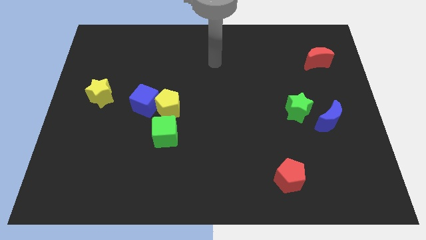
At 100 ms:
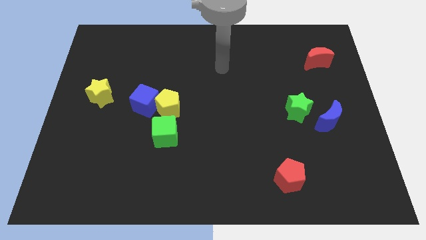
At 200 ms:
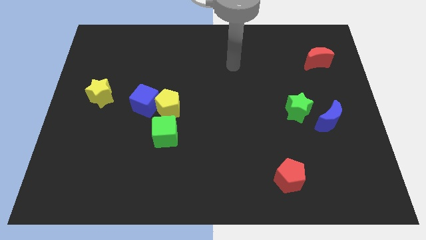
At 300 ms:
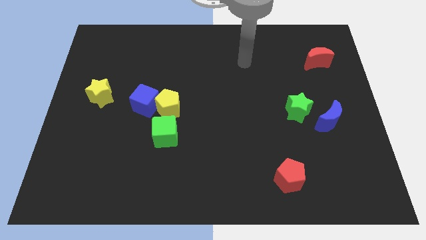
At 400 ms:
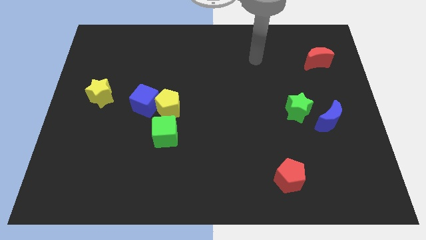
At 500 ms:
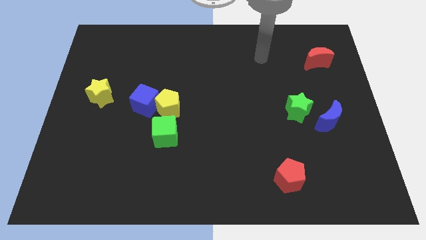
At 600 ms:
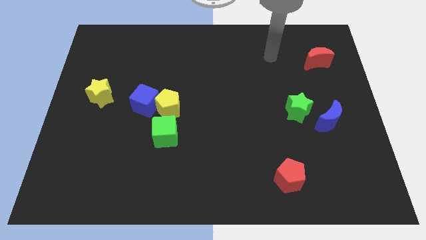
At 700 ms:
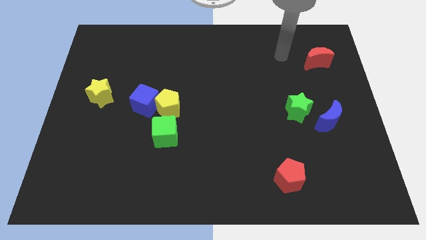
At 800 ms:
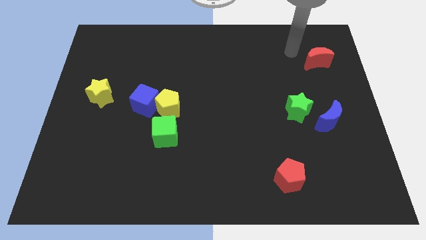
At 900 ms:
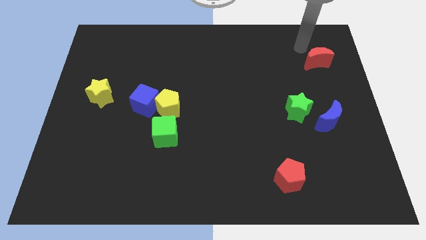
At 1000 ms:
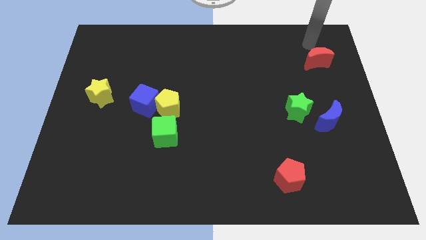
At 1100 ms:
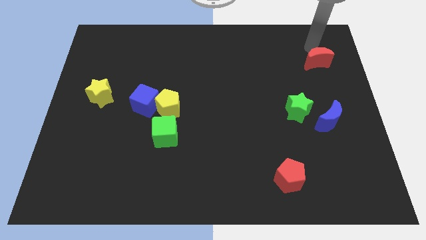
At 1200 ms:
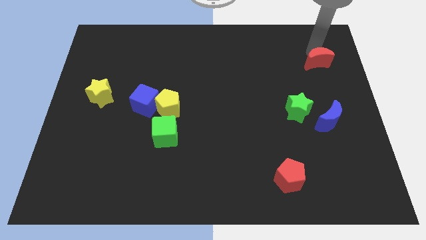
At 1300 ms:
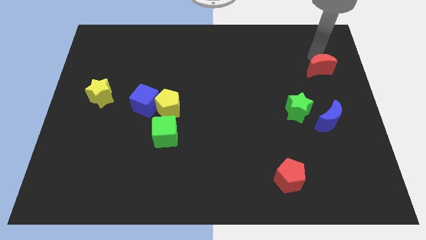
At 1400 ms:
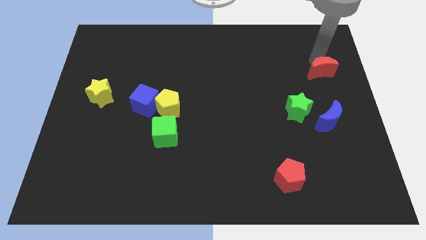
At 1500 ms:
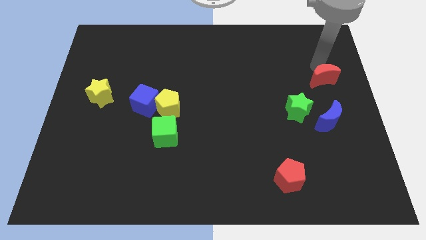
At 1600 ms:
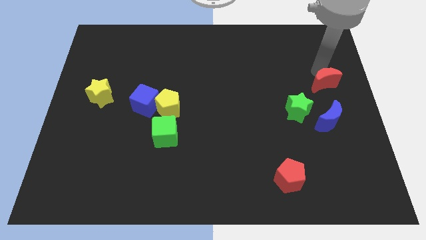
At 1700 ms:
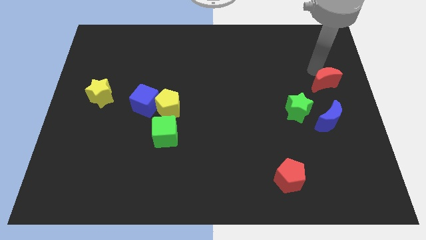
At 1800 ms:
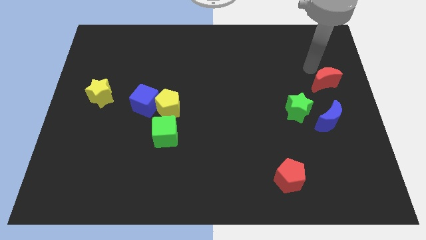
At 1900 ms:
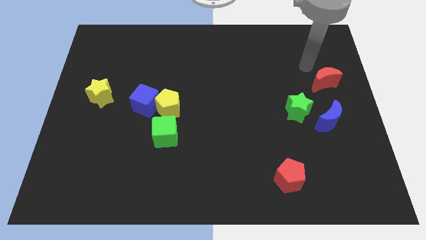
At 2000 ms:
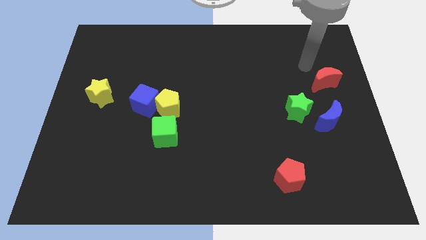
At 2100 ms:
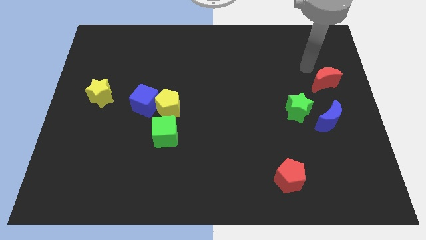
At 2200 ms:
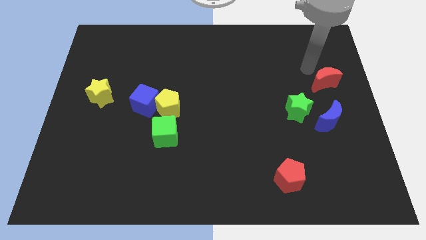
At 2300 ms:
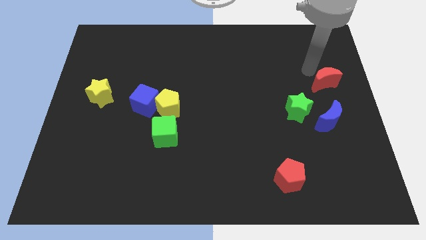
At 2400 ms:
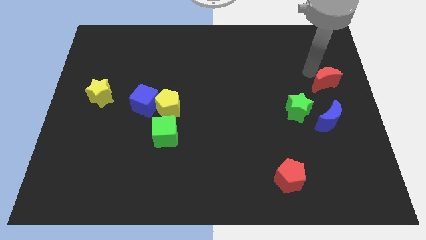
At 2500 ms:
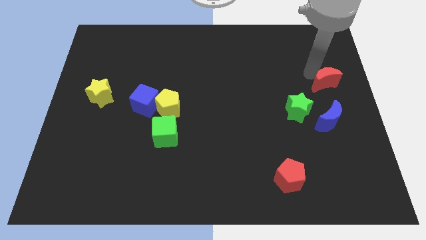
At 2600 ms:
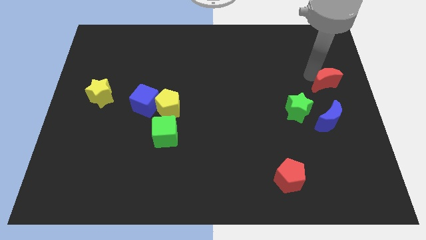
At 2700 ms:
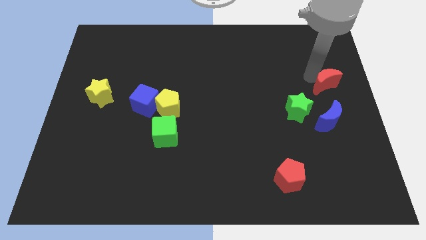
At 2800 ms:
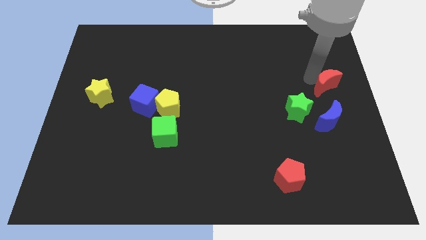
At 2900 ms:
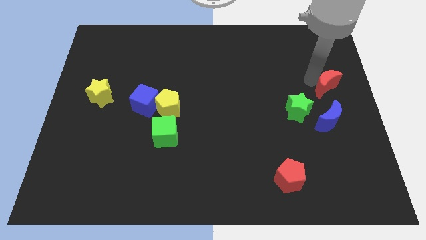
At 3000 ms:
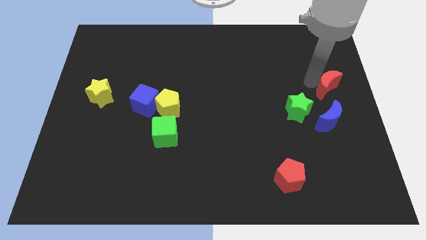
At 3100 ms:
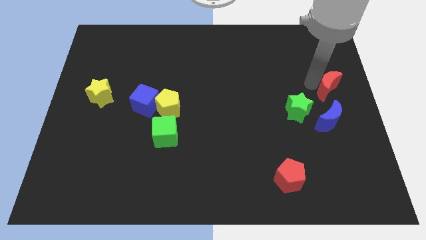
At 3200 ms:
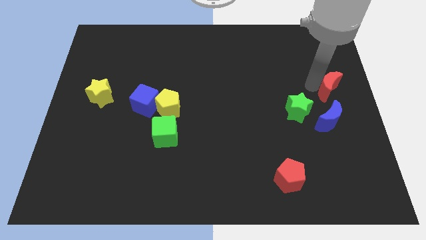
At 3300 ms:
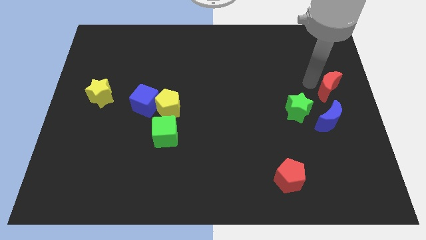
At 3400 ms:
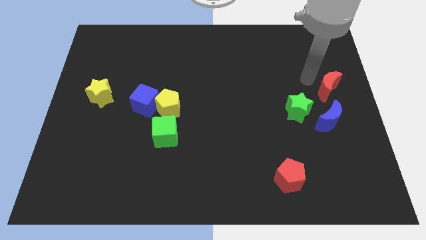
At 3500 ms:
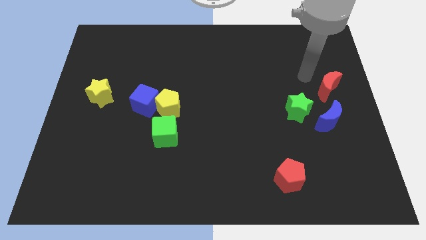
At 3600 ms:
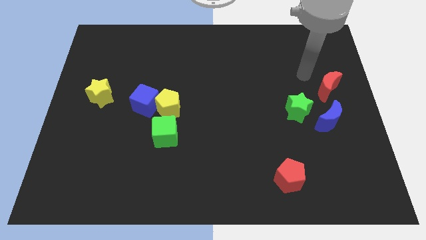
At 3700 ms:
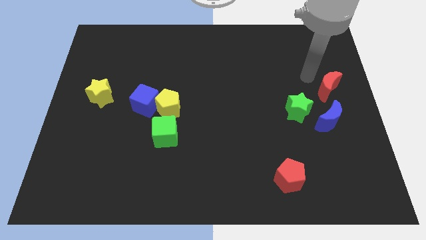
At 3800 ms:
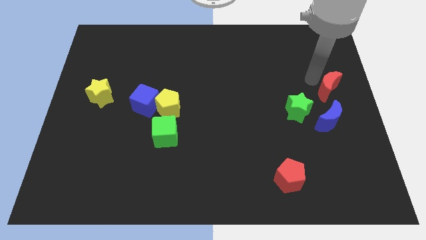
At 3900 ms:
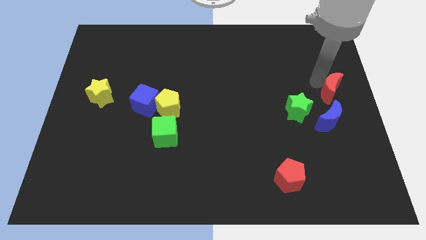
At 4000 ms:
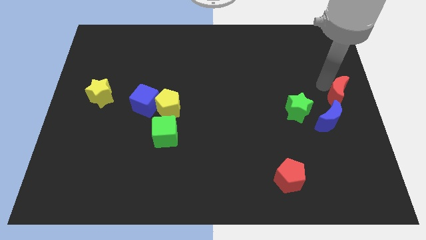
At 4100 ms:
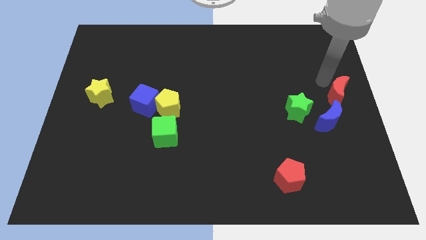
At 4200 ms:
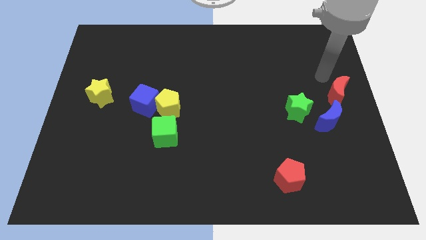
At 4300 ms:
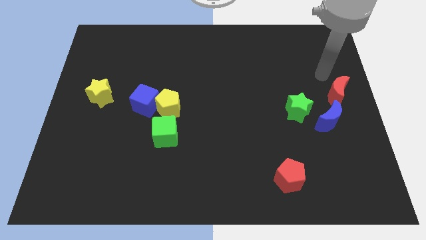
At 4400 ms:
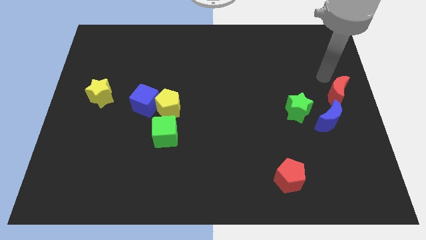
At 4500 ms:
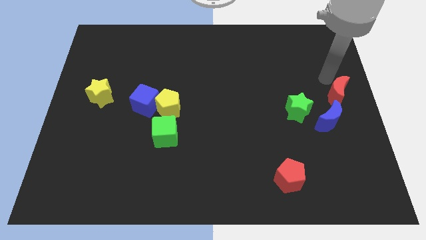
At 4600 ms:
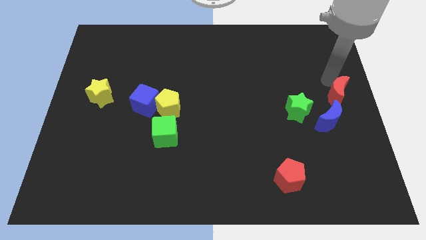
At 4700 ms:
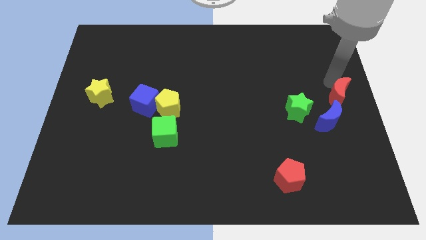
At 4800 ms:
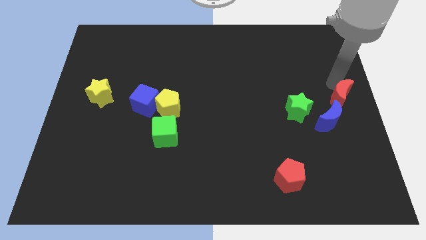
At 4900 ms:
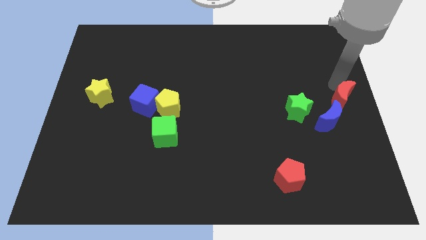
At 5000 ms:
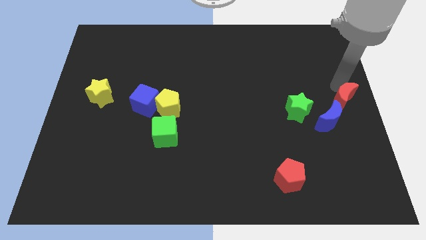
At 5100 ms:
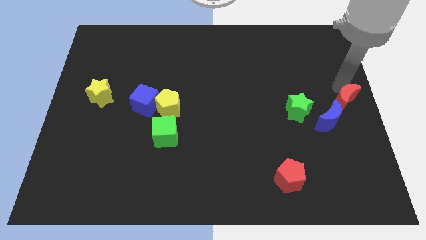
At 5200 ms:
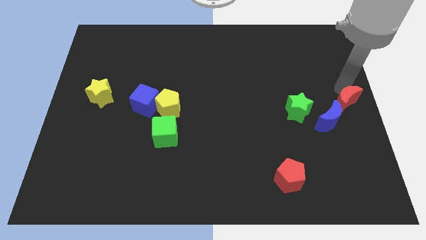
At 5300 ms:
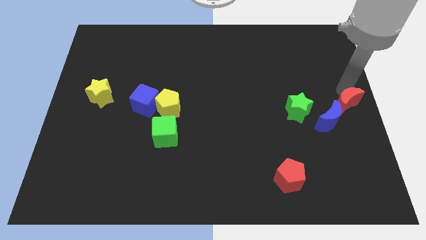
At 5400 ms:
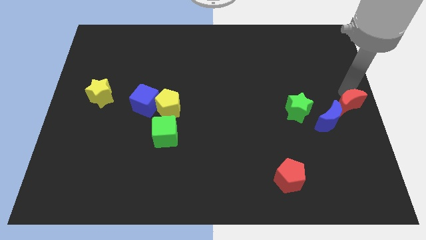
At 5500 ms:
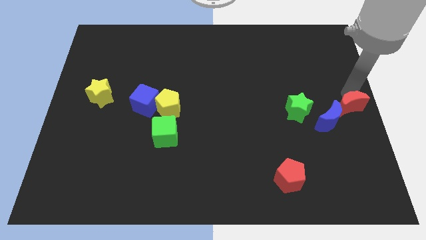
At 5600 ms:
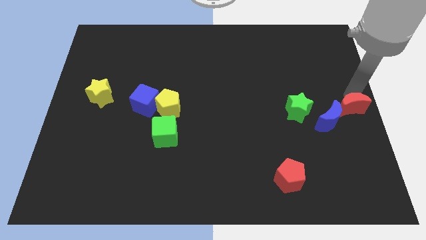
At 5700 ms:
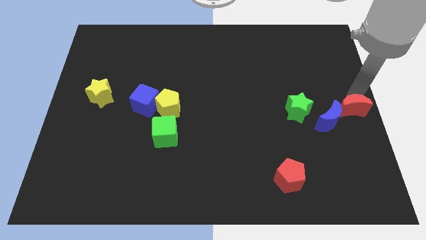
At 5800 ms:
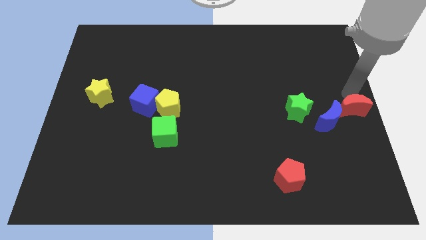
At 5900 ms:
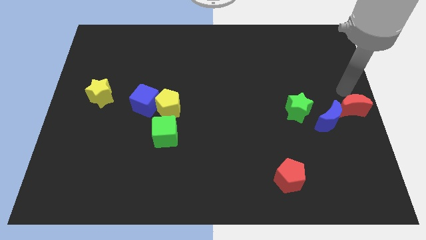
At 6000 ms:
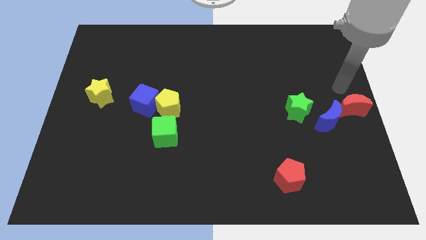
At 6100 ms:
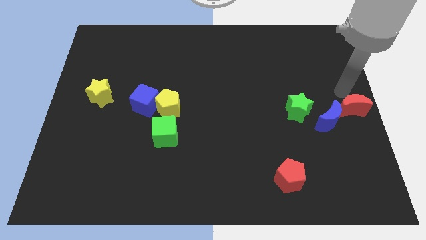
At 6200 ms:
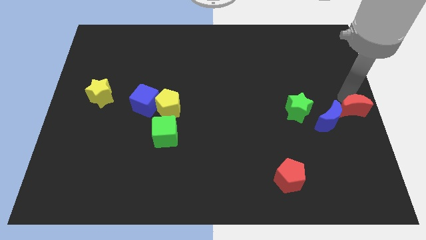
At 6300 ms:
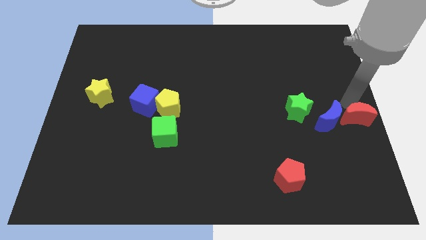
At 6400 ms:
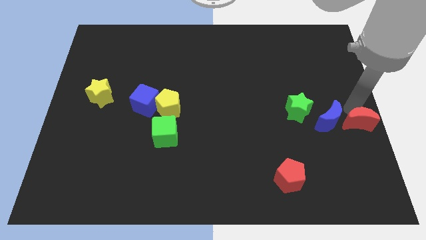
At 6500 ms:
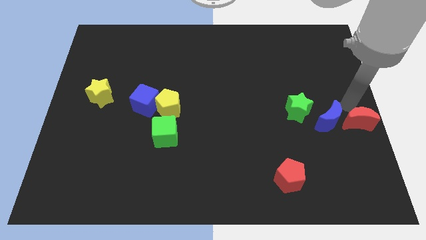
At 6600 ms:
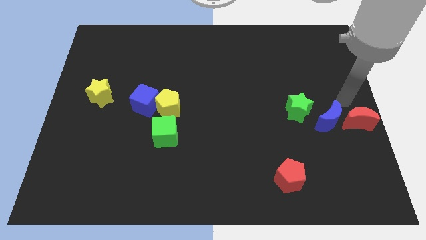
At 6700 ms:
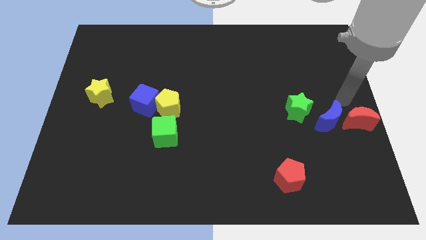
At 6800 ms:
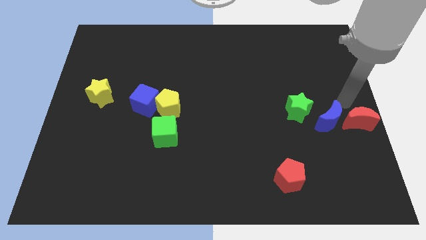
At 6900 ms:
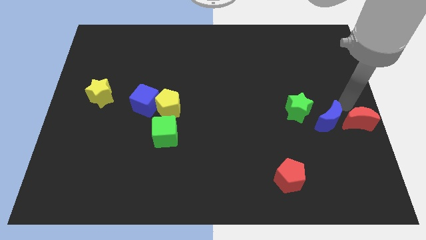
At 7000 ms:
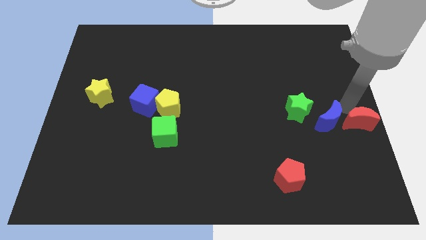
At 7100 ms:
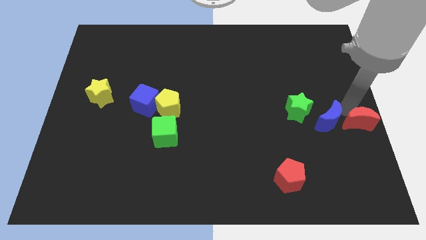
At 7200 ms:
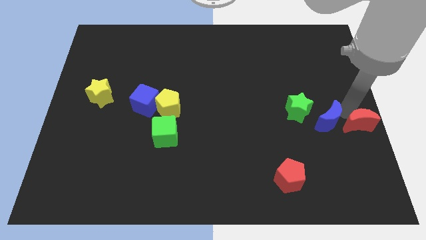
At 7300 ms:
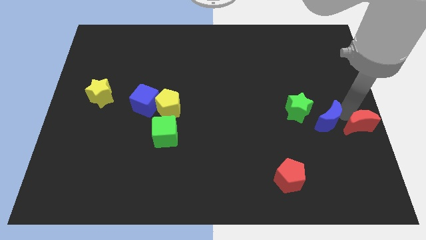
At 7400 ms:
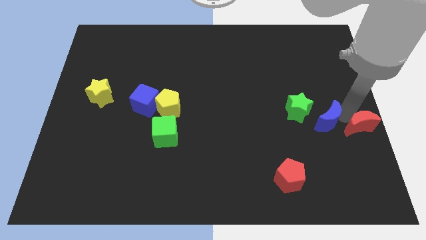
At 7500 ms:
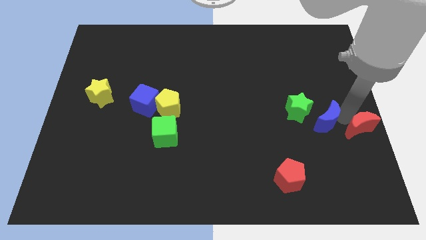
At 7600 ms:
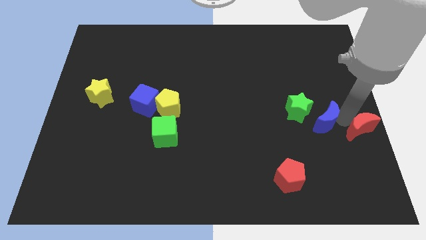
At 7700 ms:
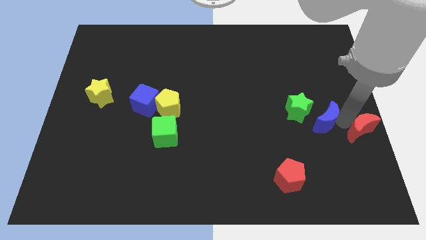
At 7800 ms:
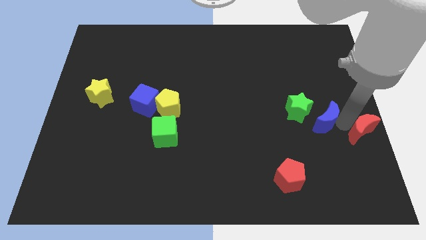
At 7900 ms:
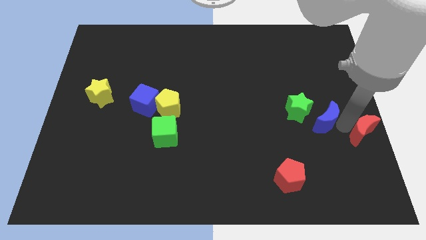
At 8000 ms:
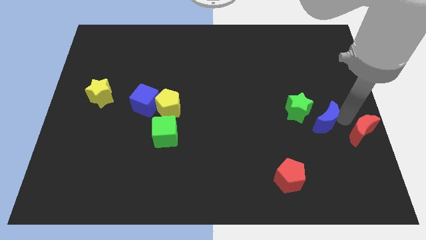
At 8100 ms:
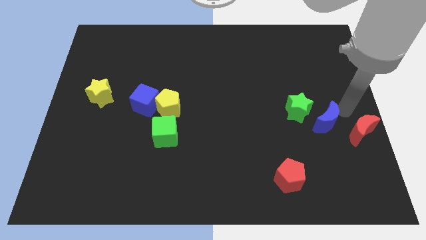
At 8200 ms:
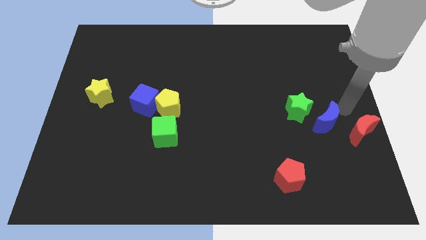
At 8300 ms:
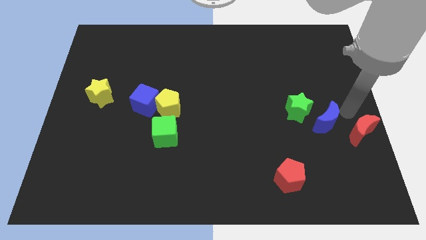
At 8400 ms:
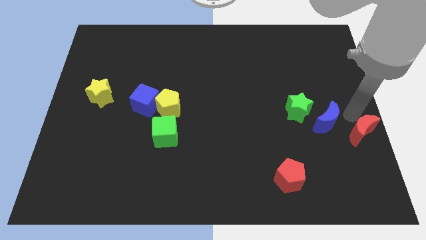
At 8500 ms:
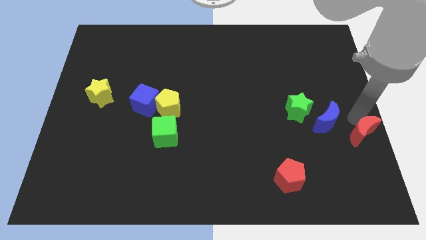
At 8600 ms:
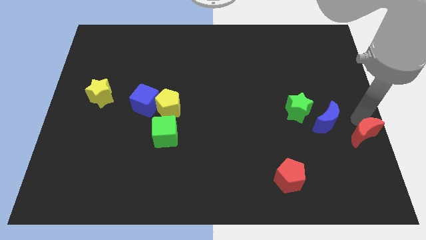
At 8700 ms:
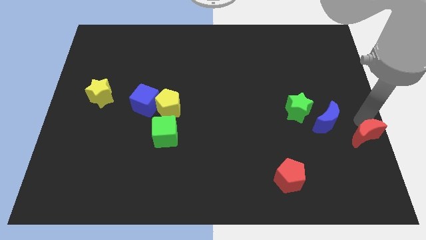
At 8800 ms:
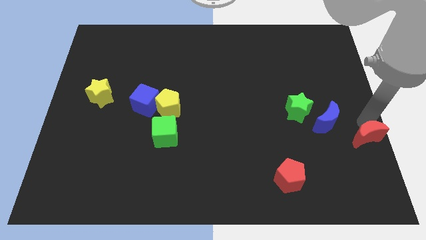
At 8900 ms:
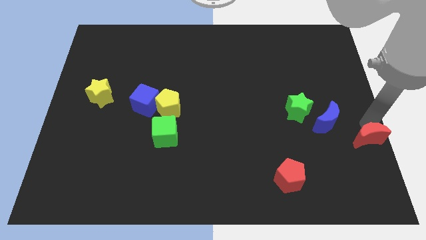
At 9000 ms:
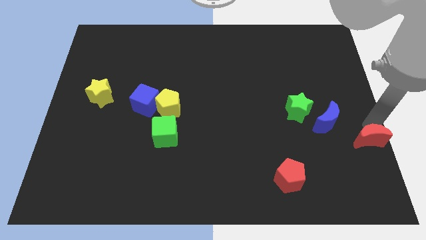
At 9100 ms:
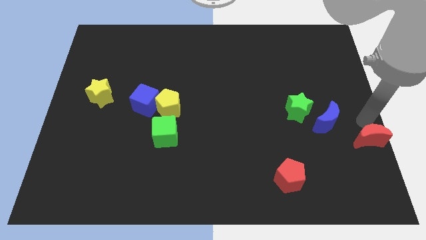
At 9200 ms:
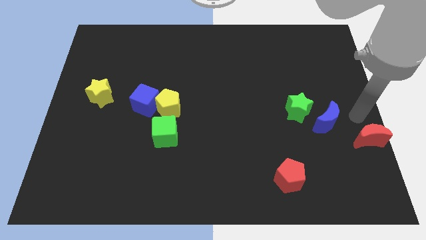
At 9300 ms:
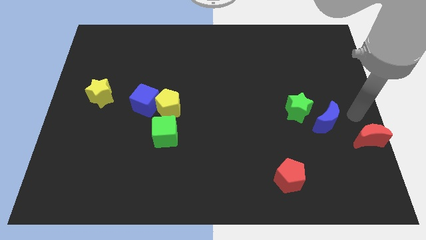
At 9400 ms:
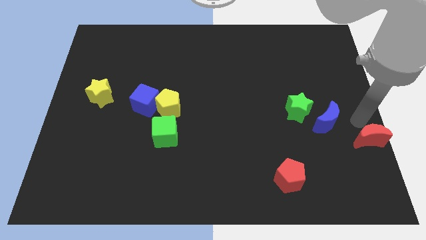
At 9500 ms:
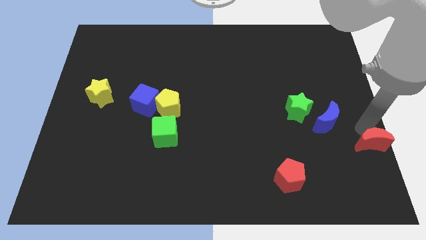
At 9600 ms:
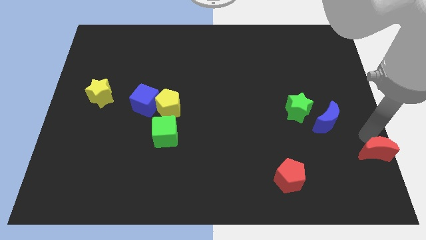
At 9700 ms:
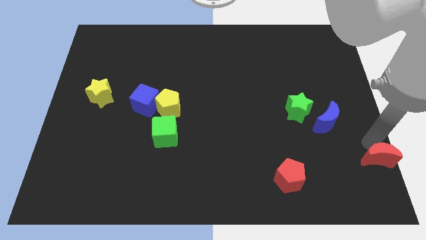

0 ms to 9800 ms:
push the red moon to the bottom right
